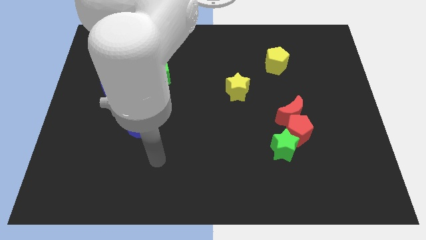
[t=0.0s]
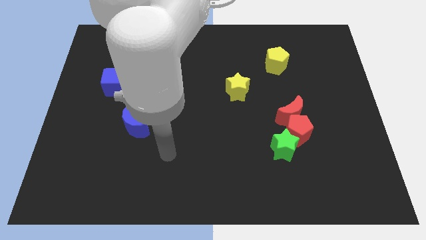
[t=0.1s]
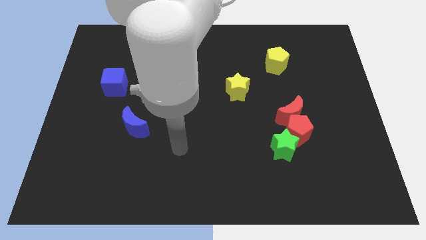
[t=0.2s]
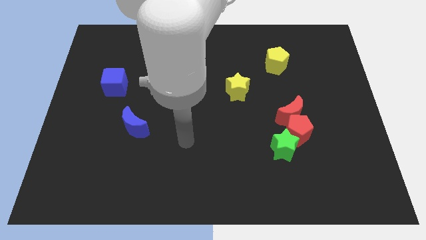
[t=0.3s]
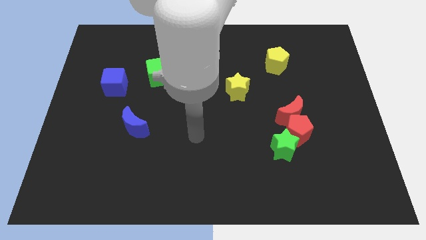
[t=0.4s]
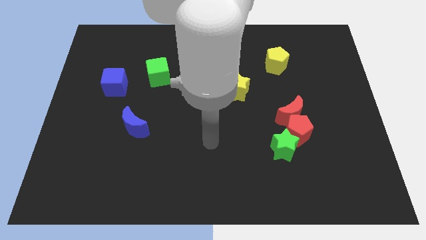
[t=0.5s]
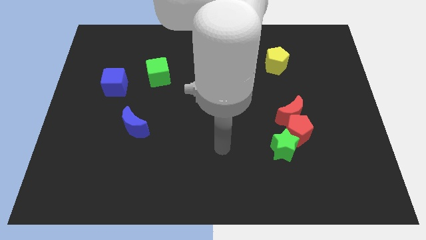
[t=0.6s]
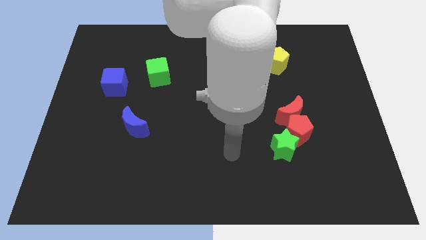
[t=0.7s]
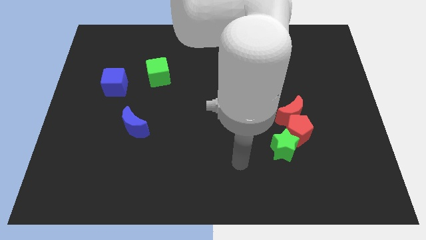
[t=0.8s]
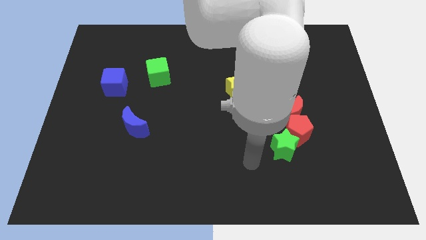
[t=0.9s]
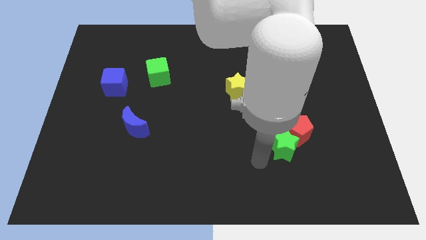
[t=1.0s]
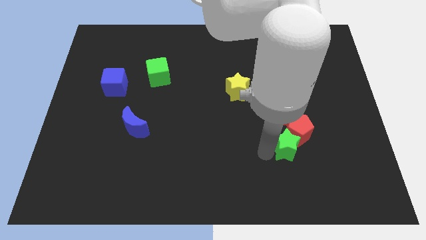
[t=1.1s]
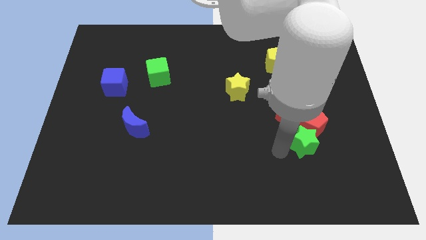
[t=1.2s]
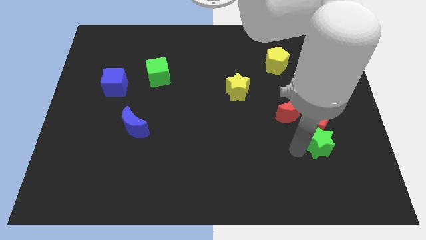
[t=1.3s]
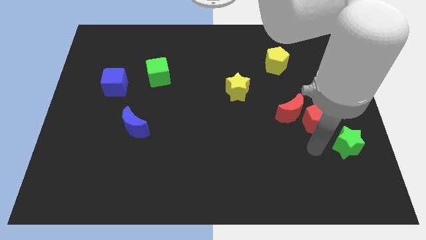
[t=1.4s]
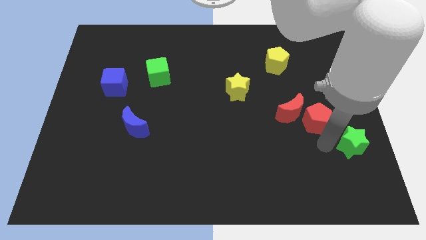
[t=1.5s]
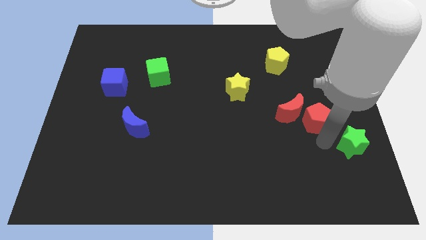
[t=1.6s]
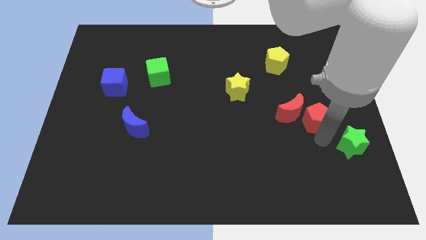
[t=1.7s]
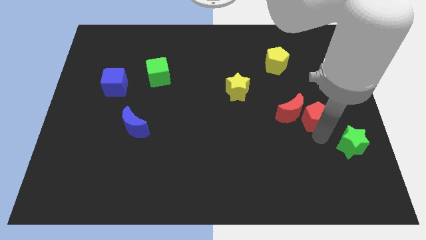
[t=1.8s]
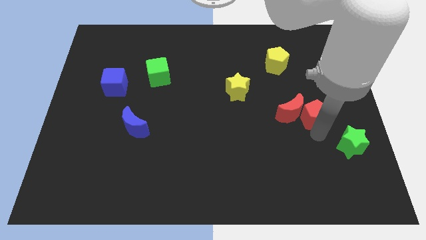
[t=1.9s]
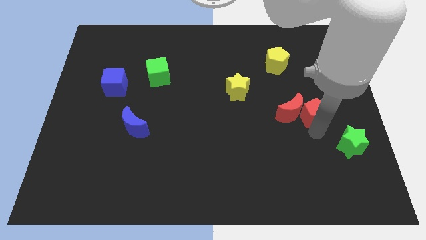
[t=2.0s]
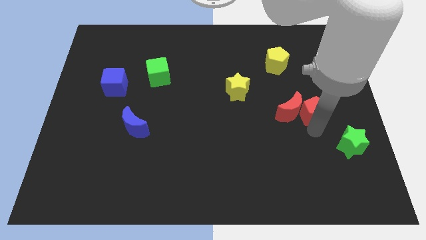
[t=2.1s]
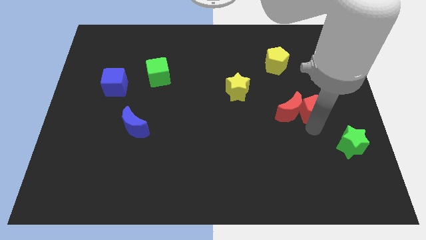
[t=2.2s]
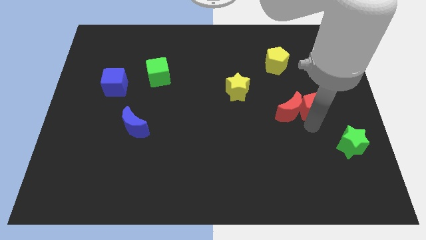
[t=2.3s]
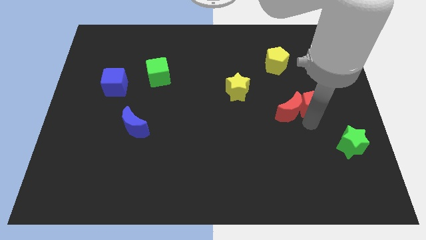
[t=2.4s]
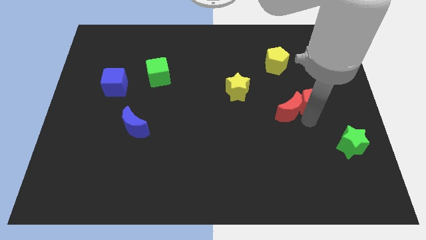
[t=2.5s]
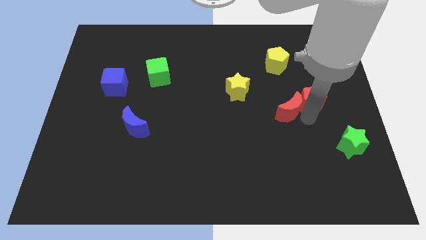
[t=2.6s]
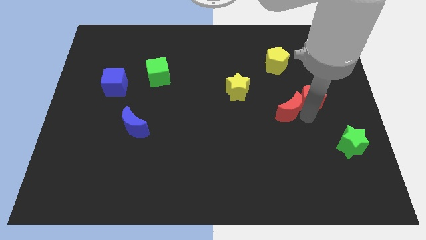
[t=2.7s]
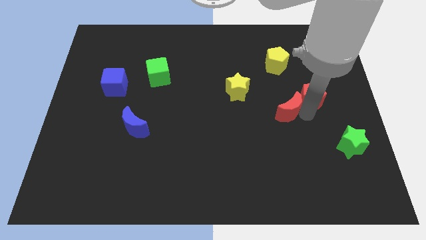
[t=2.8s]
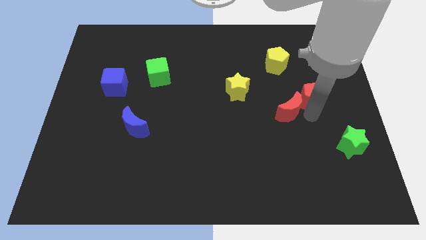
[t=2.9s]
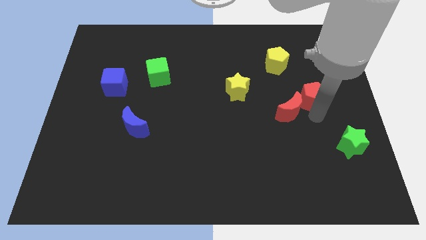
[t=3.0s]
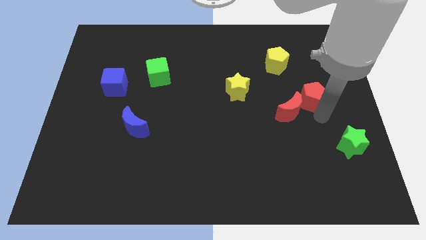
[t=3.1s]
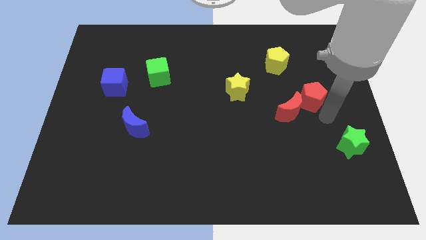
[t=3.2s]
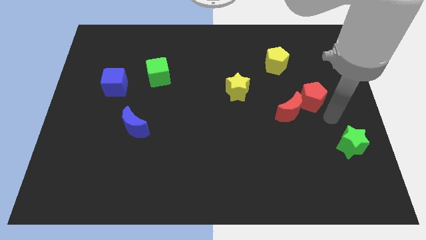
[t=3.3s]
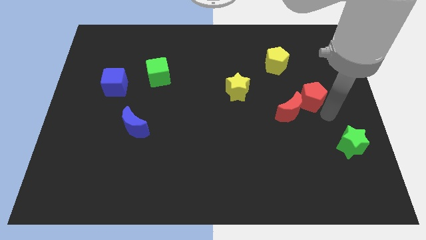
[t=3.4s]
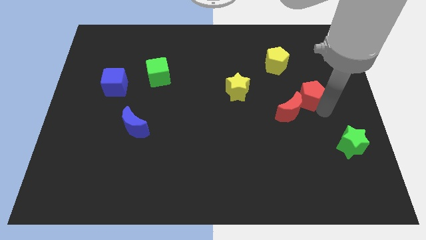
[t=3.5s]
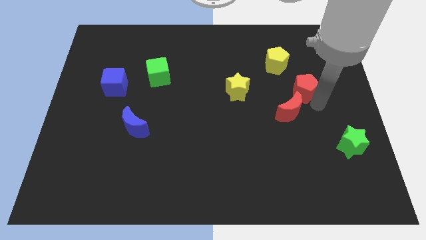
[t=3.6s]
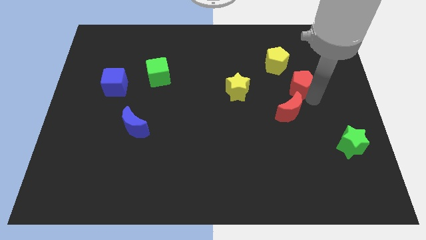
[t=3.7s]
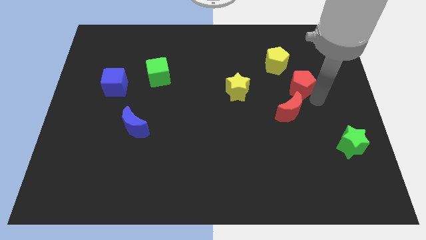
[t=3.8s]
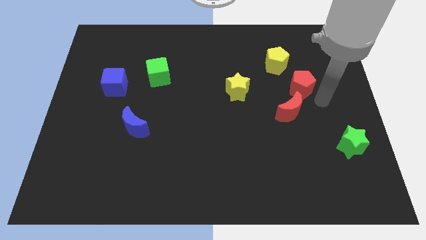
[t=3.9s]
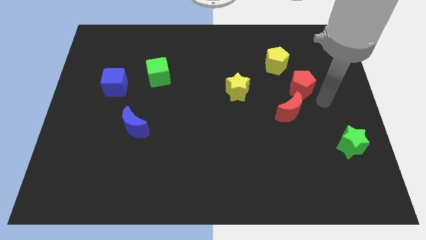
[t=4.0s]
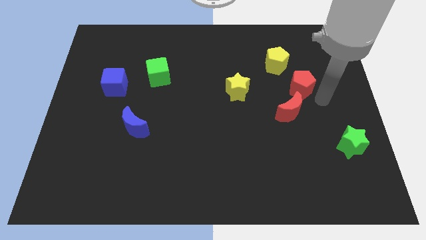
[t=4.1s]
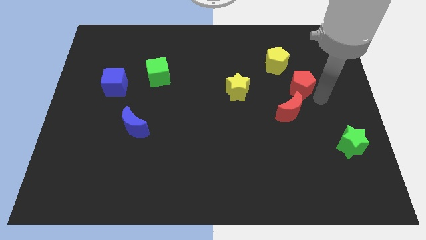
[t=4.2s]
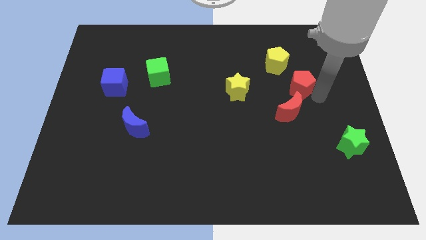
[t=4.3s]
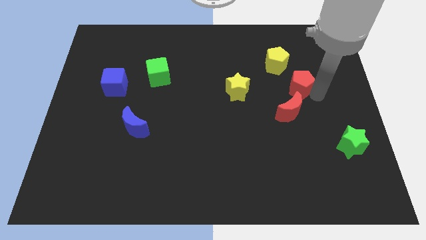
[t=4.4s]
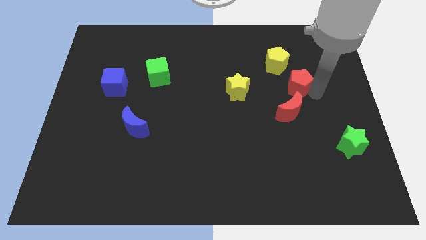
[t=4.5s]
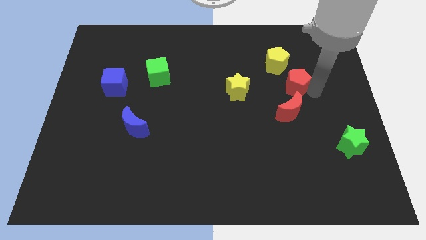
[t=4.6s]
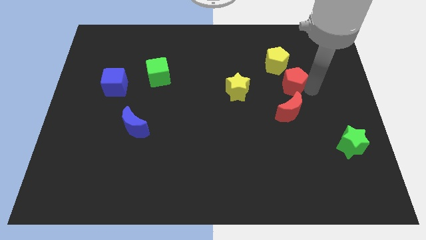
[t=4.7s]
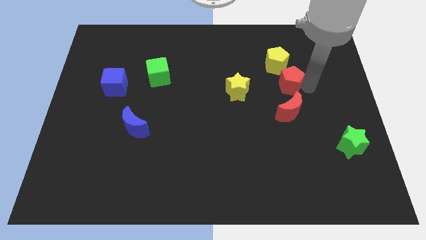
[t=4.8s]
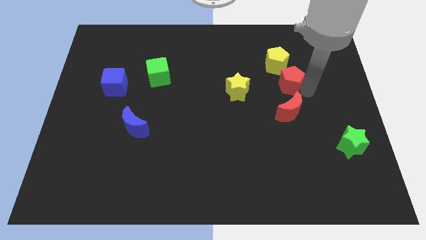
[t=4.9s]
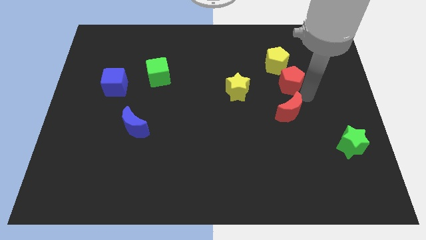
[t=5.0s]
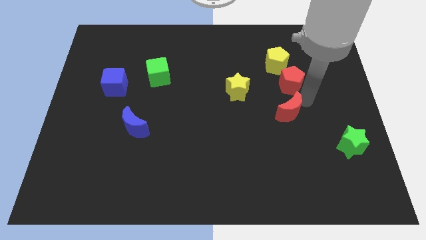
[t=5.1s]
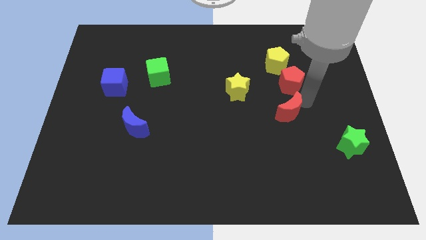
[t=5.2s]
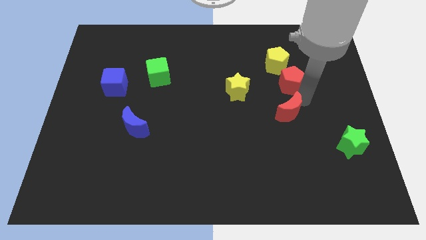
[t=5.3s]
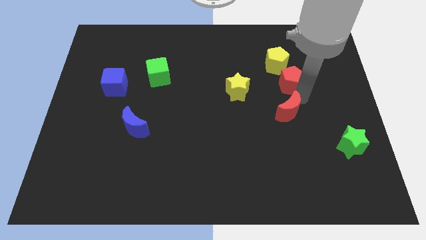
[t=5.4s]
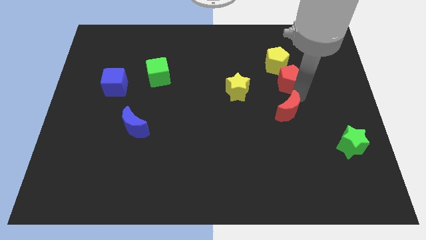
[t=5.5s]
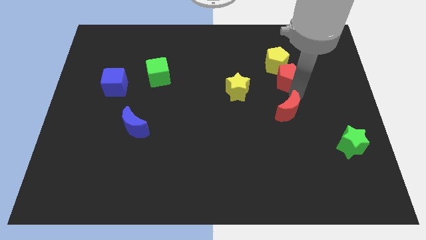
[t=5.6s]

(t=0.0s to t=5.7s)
push the red pentagon to the yellow pentagon

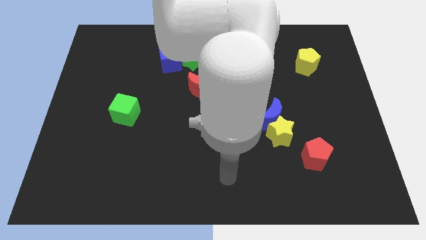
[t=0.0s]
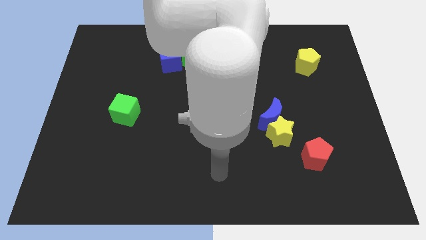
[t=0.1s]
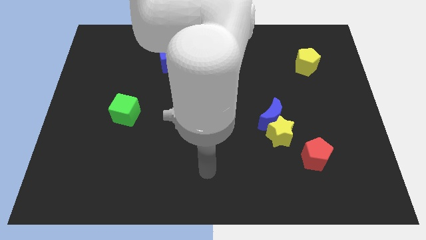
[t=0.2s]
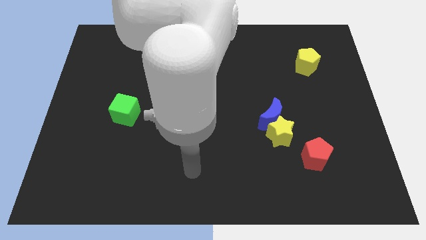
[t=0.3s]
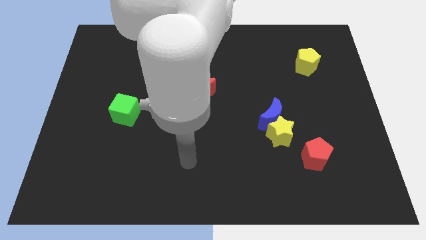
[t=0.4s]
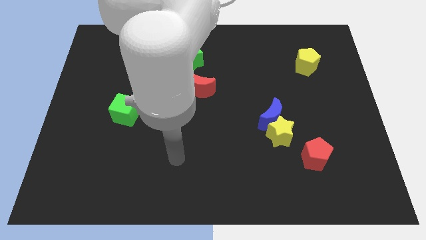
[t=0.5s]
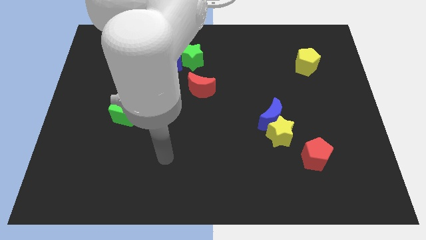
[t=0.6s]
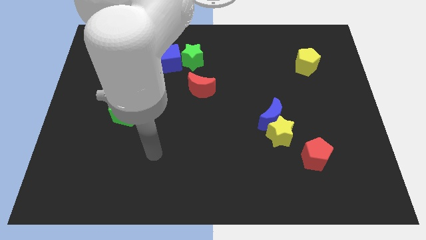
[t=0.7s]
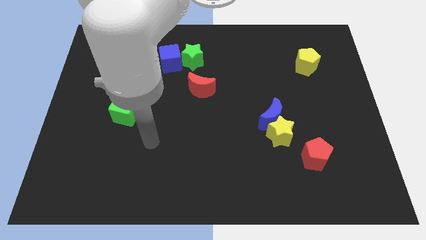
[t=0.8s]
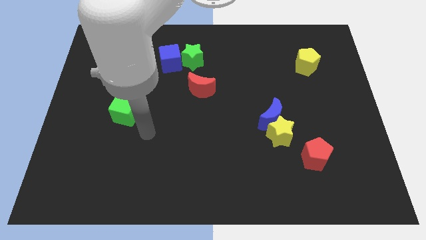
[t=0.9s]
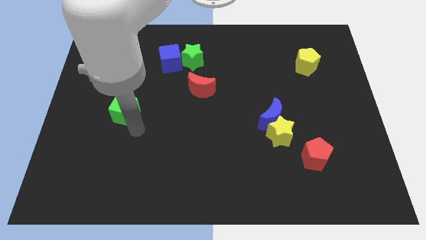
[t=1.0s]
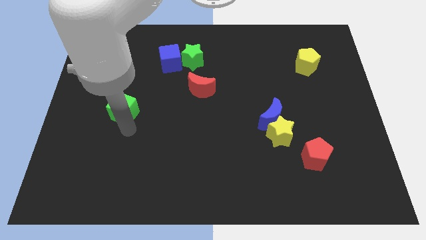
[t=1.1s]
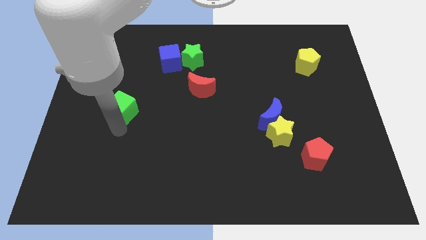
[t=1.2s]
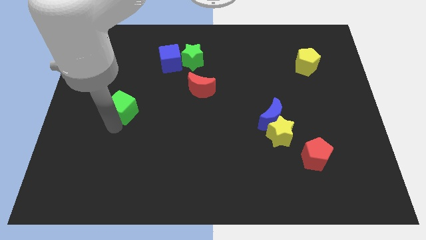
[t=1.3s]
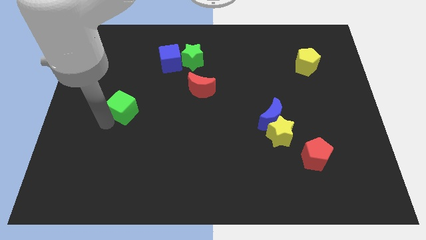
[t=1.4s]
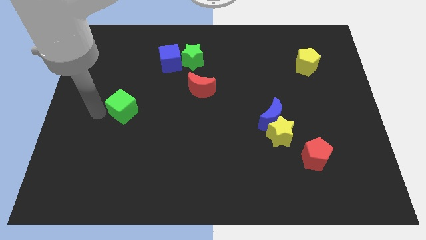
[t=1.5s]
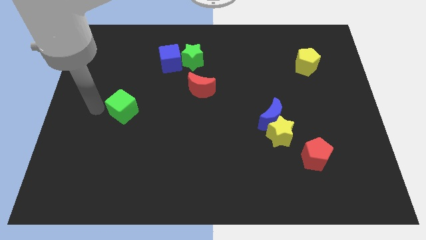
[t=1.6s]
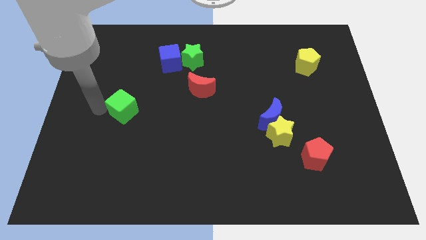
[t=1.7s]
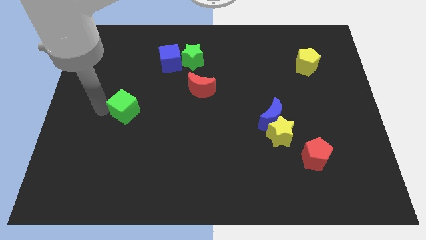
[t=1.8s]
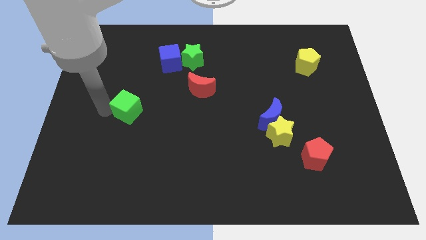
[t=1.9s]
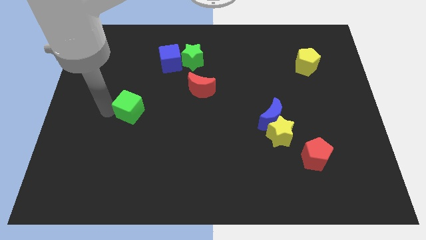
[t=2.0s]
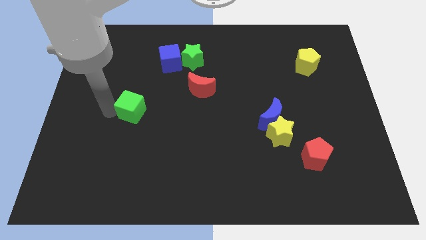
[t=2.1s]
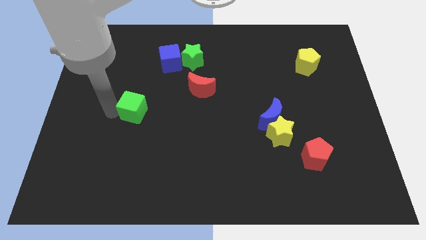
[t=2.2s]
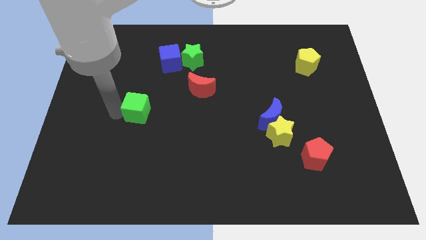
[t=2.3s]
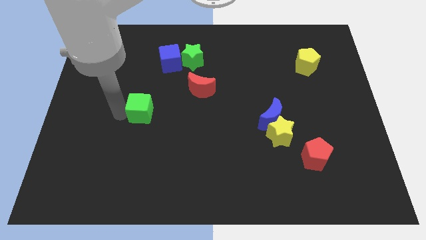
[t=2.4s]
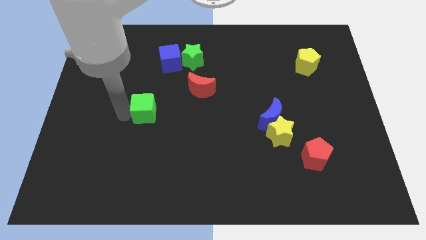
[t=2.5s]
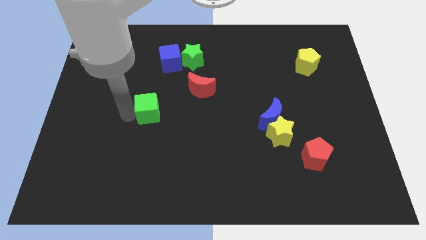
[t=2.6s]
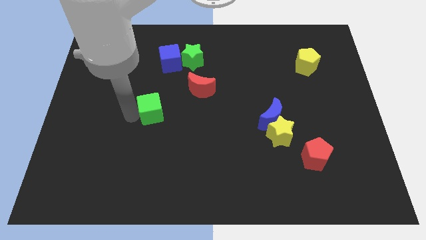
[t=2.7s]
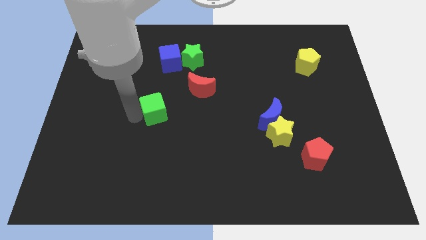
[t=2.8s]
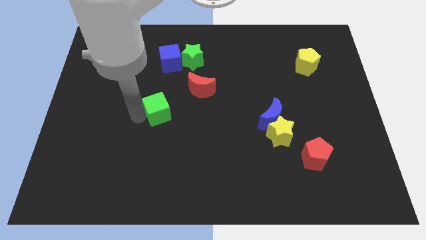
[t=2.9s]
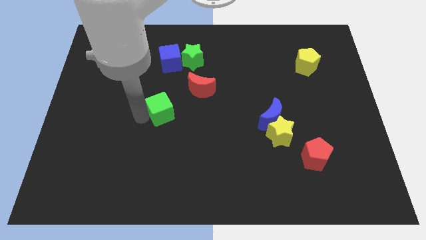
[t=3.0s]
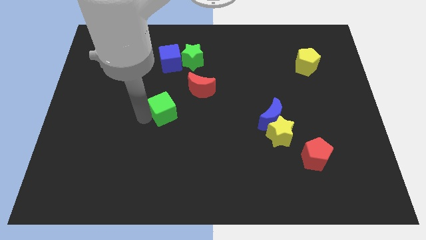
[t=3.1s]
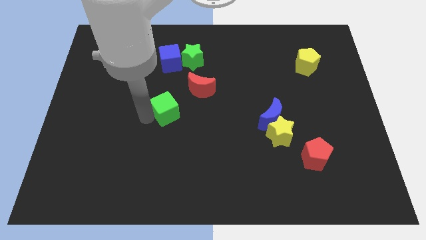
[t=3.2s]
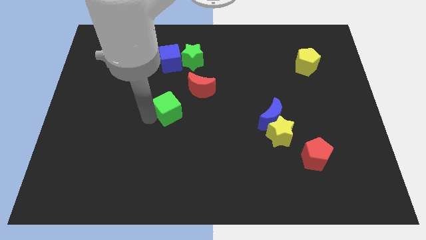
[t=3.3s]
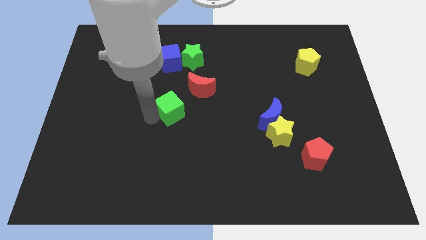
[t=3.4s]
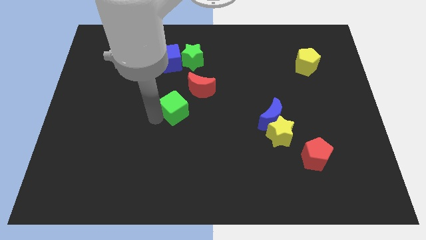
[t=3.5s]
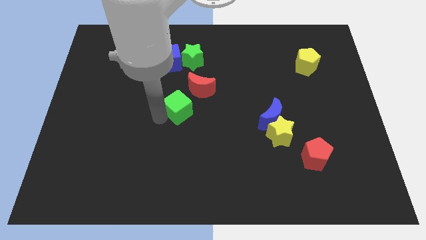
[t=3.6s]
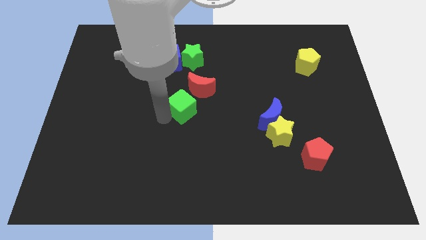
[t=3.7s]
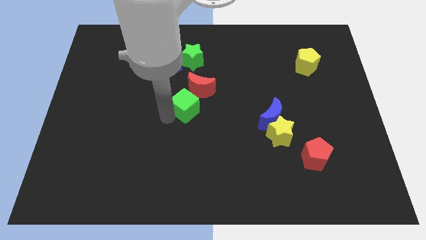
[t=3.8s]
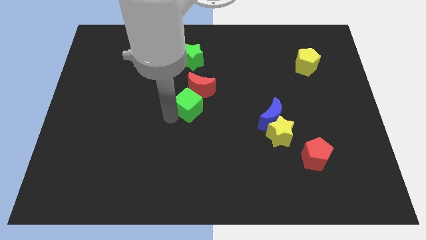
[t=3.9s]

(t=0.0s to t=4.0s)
push the green cube towards the red moon
